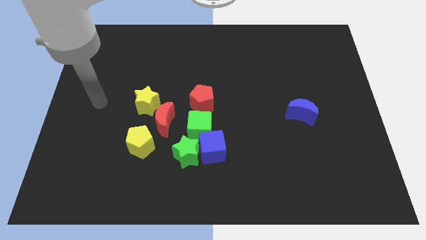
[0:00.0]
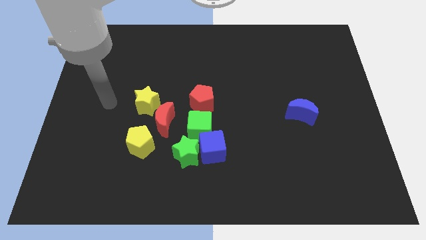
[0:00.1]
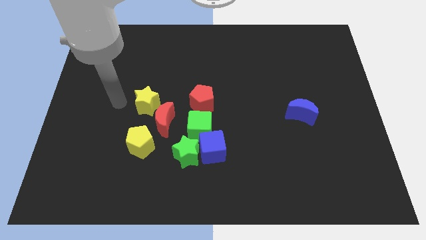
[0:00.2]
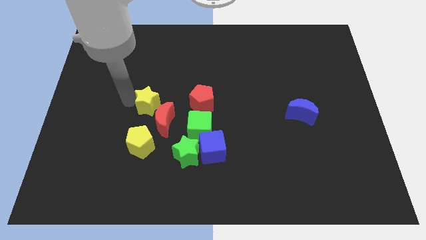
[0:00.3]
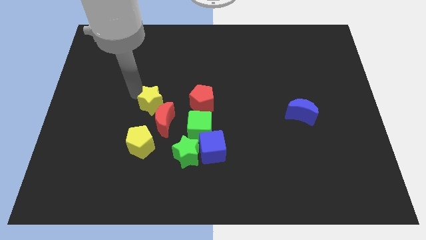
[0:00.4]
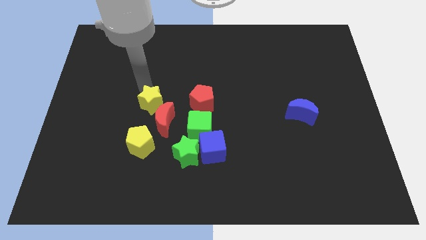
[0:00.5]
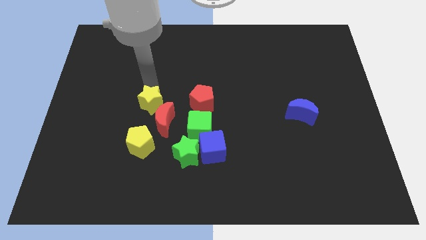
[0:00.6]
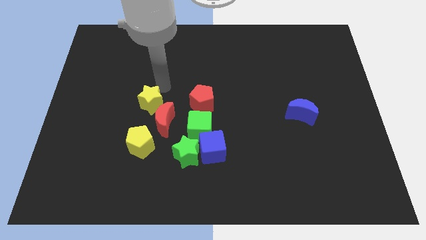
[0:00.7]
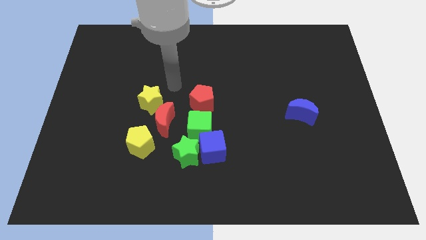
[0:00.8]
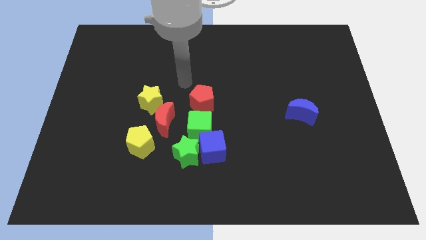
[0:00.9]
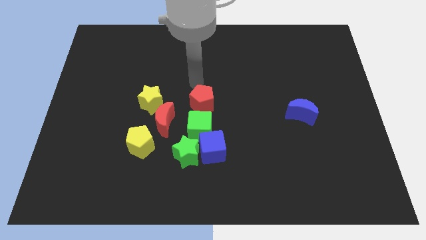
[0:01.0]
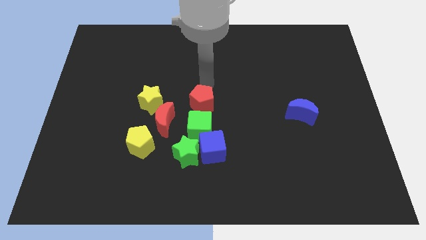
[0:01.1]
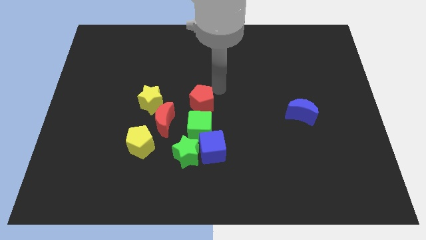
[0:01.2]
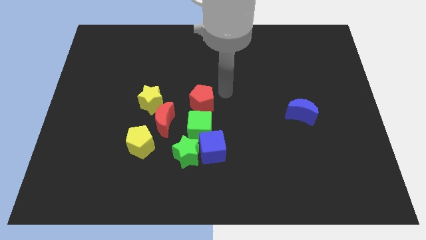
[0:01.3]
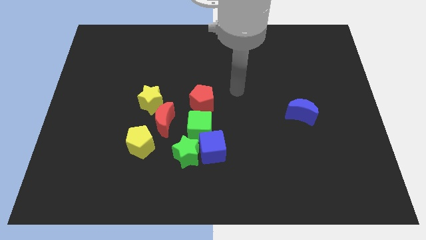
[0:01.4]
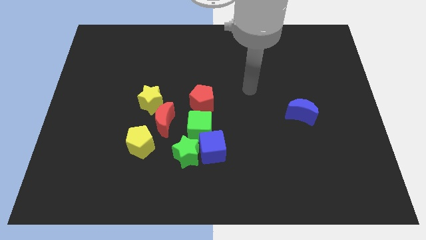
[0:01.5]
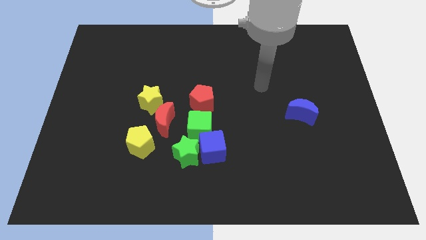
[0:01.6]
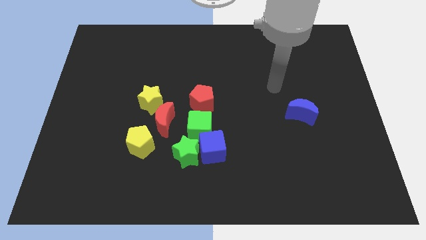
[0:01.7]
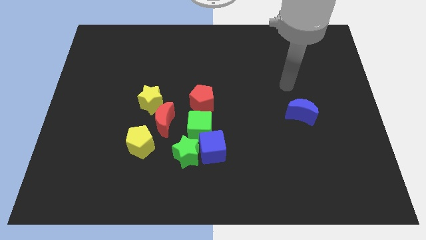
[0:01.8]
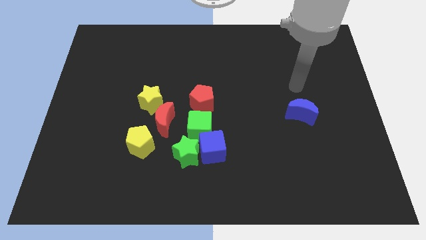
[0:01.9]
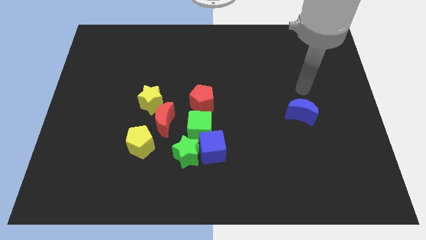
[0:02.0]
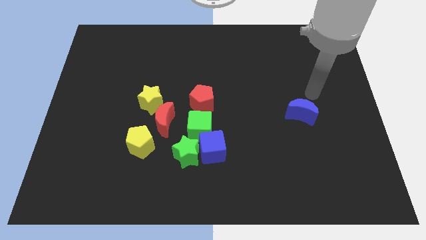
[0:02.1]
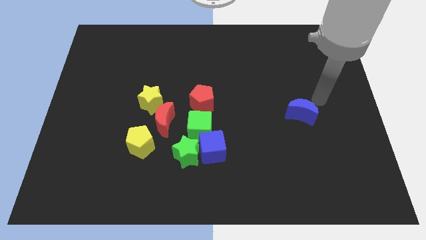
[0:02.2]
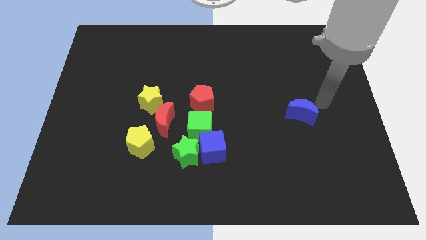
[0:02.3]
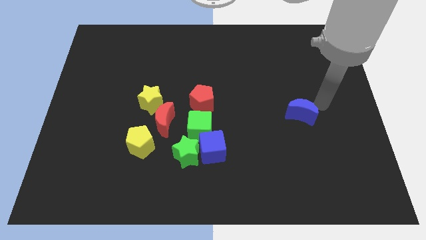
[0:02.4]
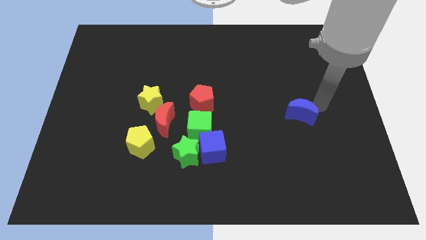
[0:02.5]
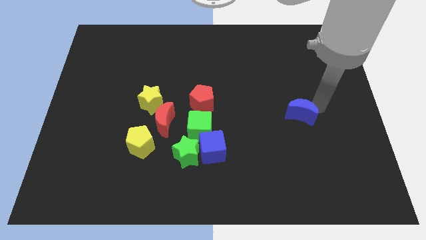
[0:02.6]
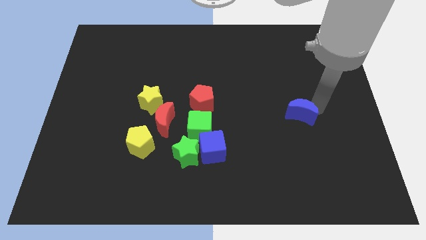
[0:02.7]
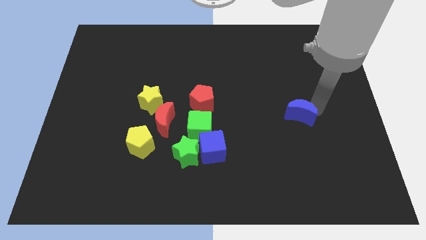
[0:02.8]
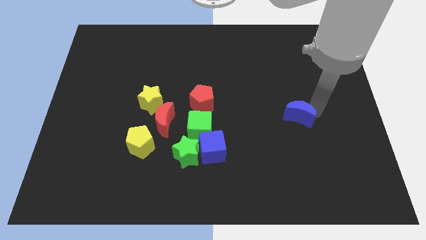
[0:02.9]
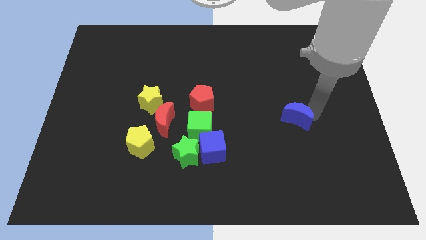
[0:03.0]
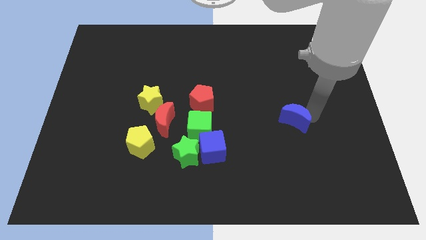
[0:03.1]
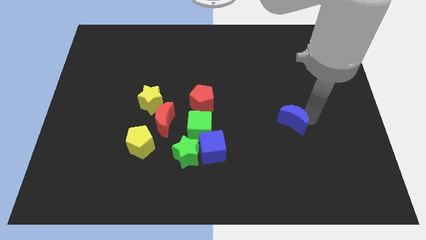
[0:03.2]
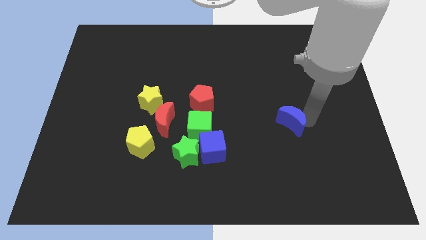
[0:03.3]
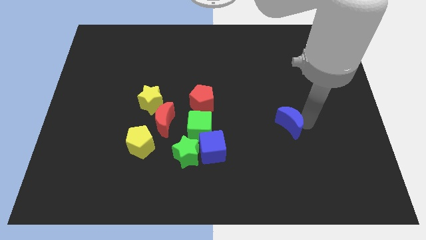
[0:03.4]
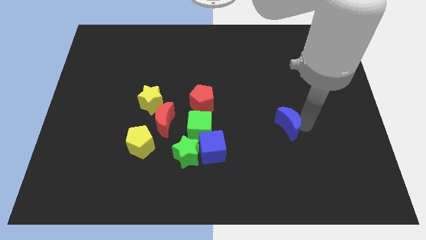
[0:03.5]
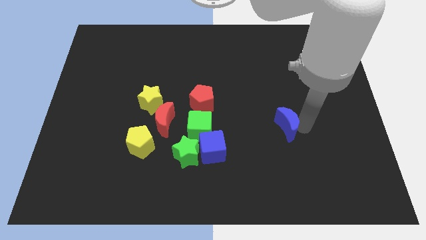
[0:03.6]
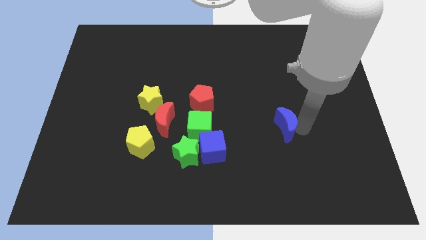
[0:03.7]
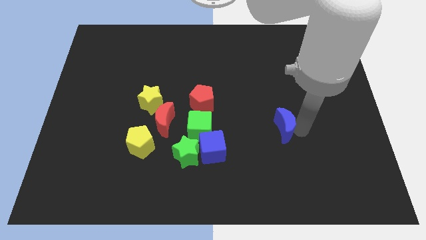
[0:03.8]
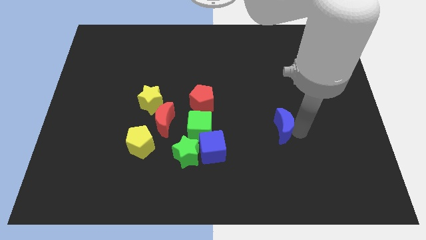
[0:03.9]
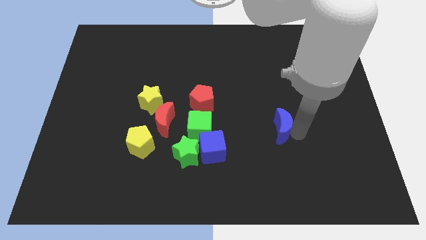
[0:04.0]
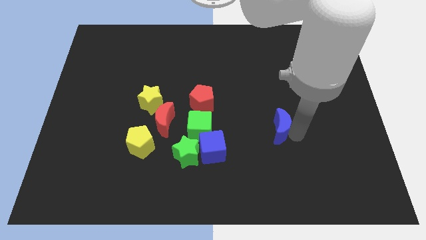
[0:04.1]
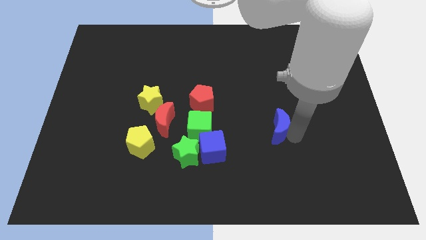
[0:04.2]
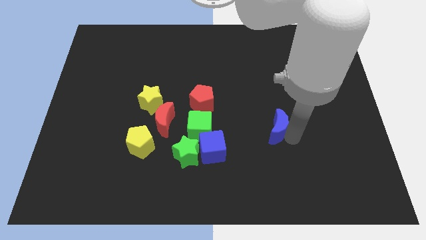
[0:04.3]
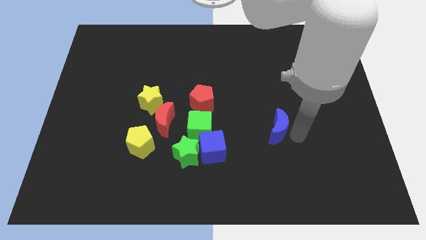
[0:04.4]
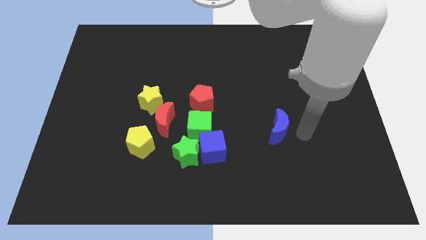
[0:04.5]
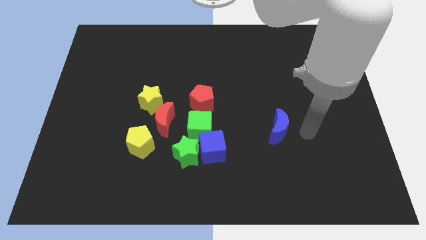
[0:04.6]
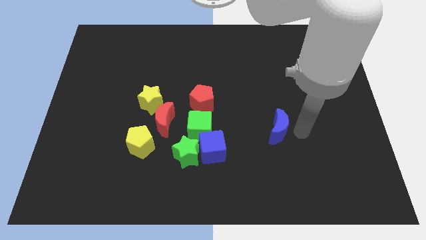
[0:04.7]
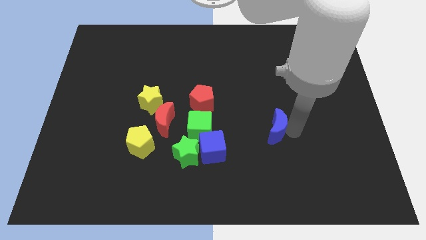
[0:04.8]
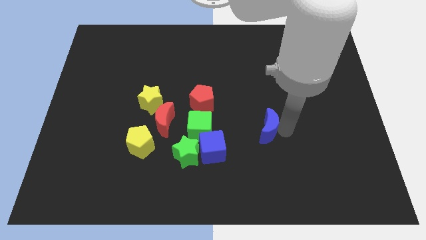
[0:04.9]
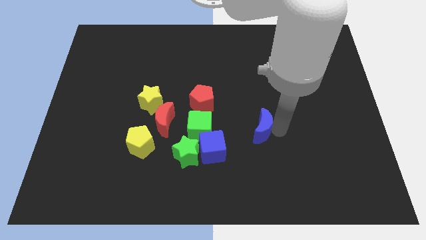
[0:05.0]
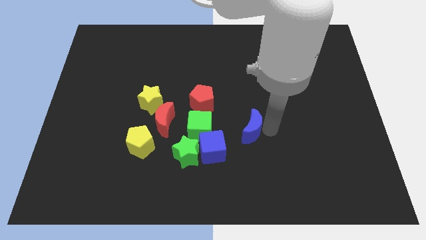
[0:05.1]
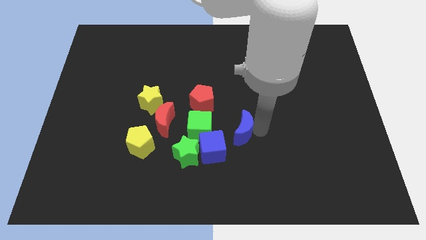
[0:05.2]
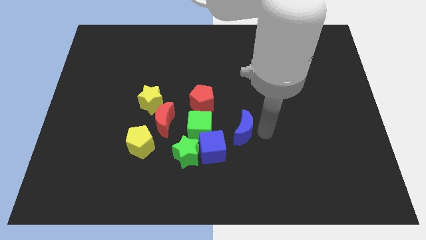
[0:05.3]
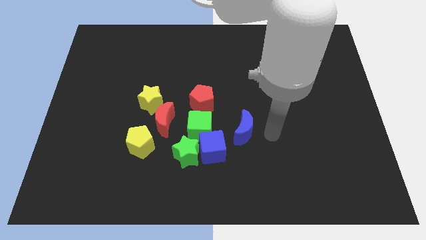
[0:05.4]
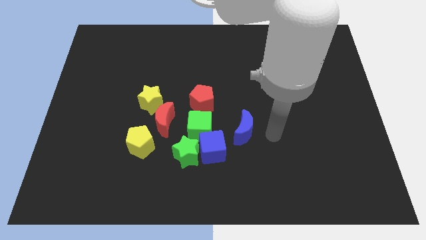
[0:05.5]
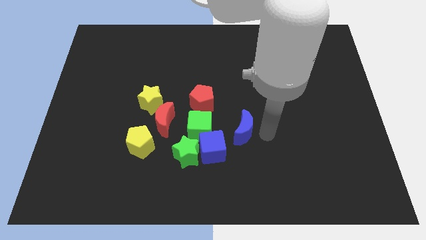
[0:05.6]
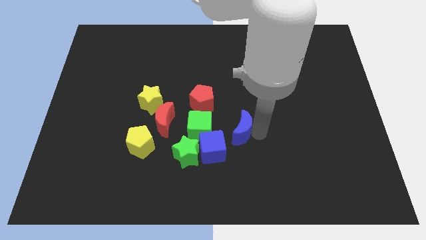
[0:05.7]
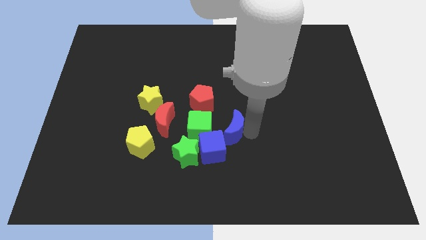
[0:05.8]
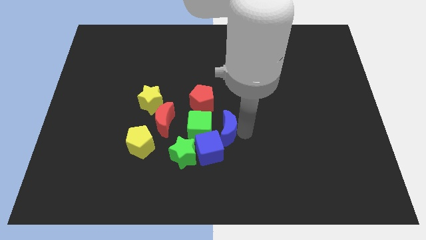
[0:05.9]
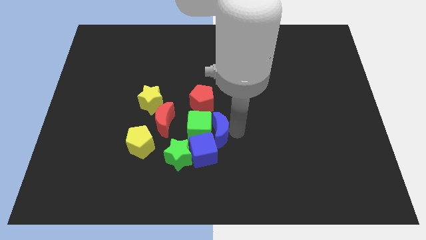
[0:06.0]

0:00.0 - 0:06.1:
slide the blue moon close to the green cube

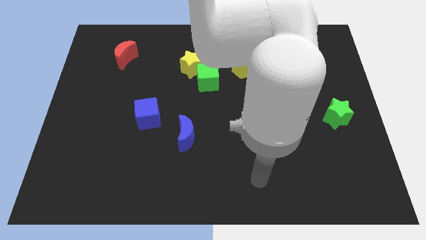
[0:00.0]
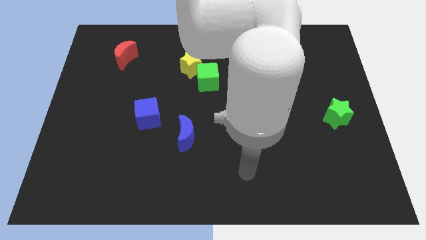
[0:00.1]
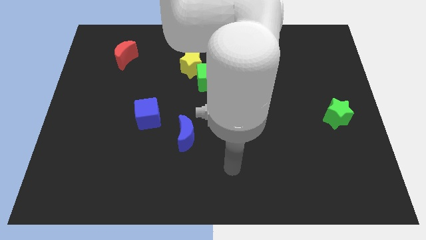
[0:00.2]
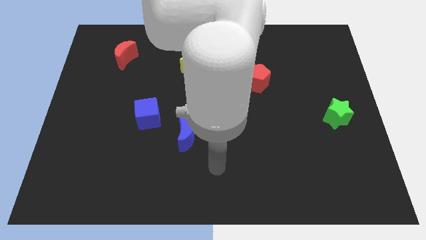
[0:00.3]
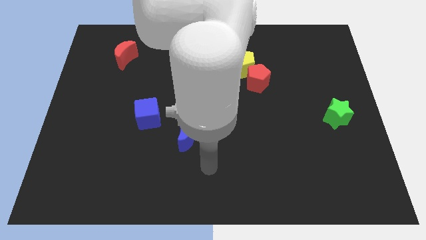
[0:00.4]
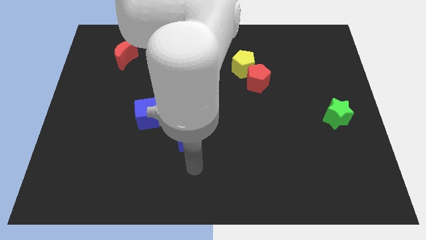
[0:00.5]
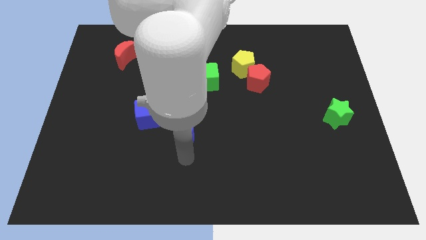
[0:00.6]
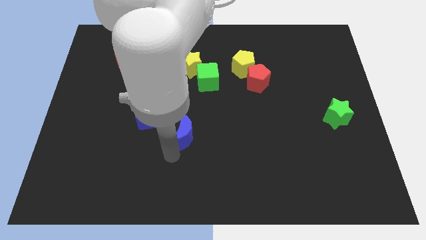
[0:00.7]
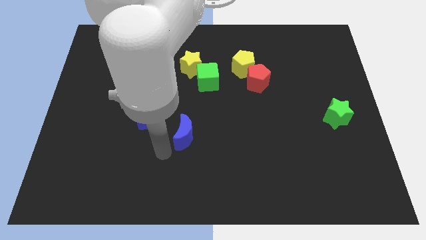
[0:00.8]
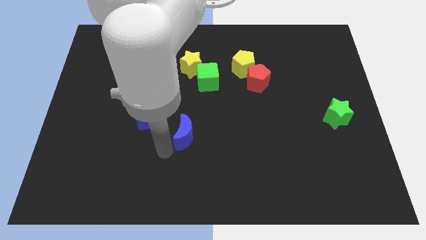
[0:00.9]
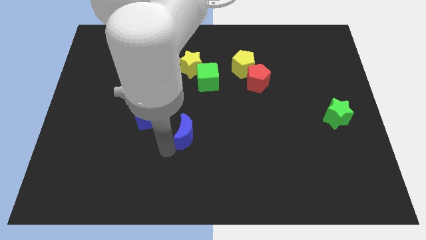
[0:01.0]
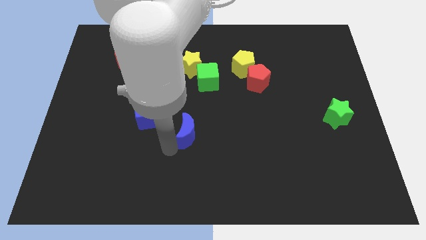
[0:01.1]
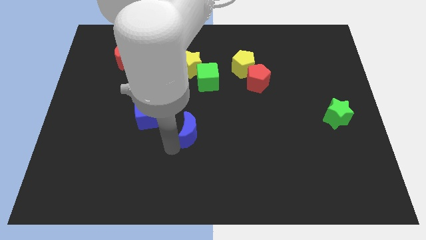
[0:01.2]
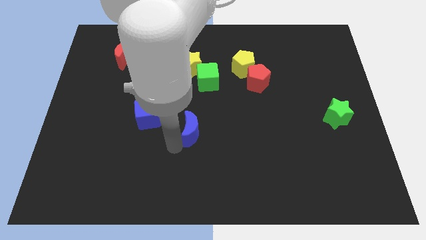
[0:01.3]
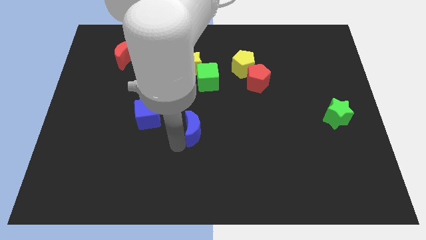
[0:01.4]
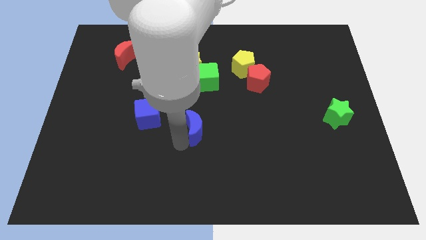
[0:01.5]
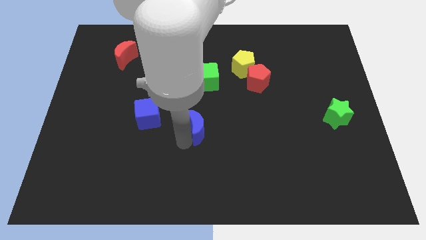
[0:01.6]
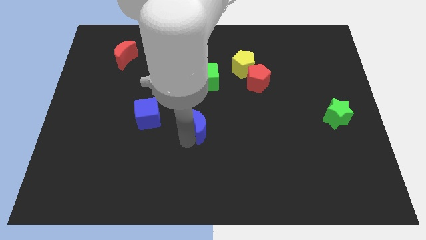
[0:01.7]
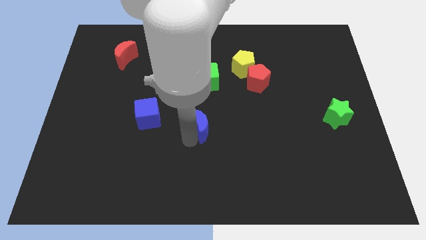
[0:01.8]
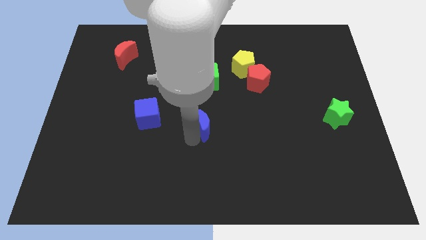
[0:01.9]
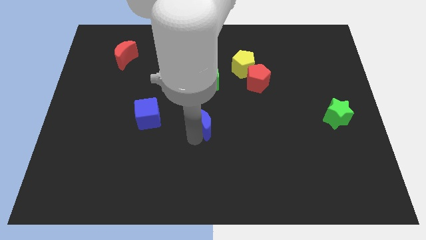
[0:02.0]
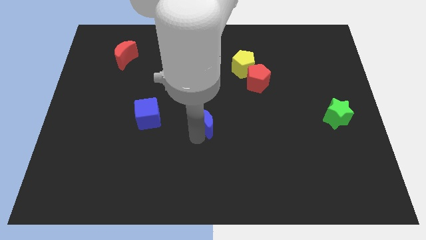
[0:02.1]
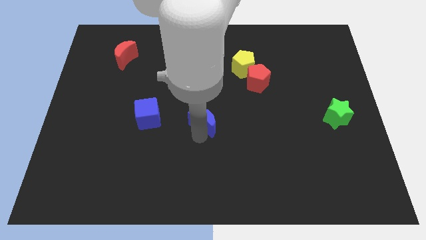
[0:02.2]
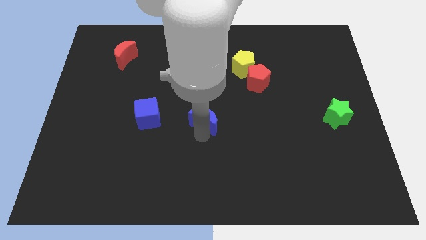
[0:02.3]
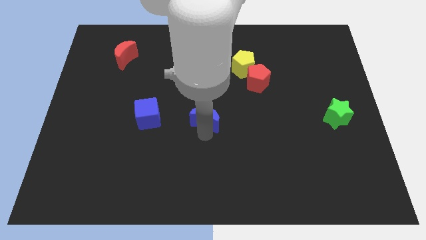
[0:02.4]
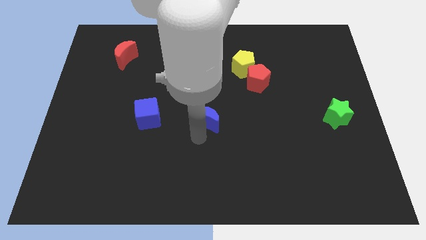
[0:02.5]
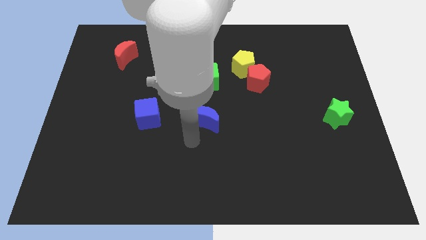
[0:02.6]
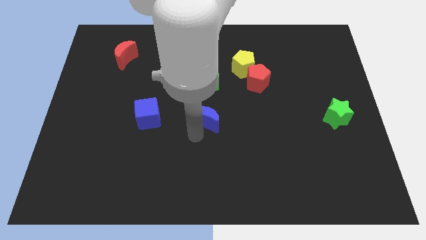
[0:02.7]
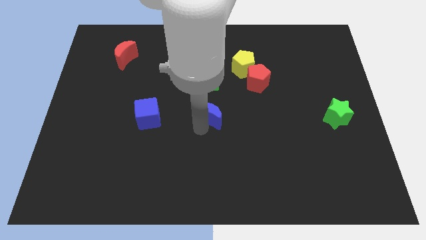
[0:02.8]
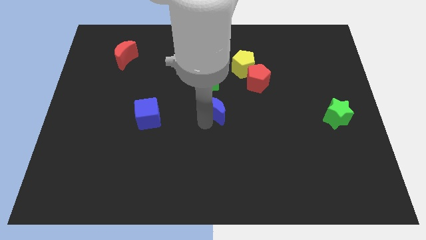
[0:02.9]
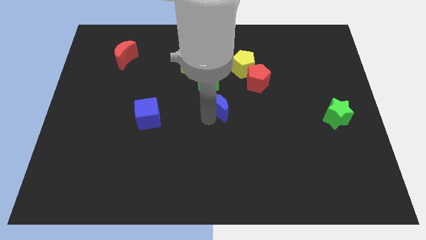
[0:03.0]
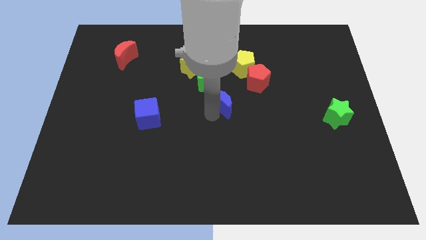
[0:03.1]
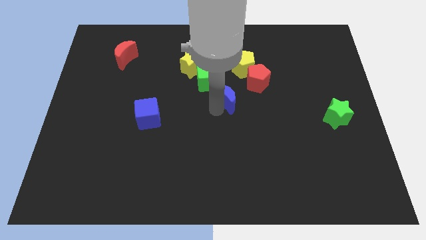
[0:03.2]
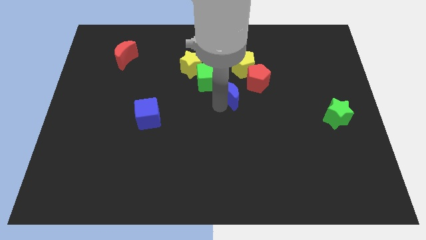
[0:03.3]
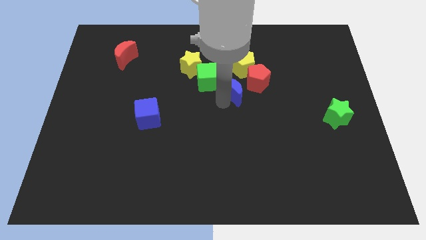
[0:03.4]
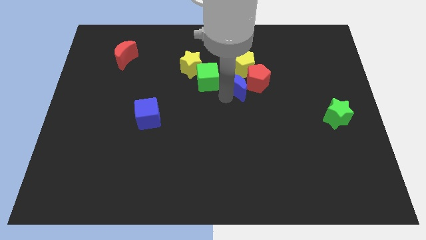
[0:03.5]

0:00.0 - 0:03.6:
move the blue moon close to the red pentagon
